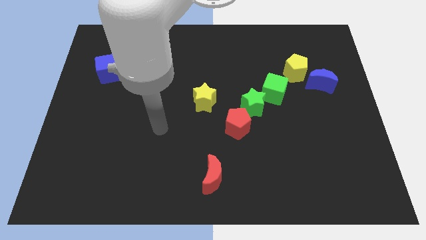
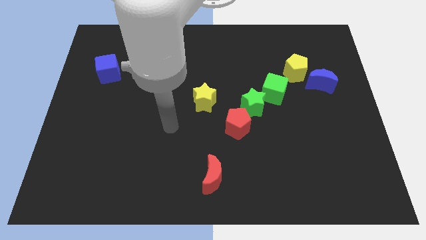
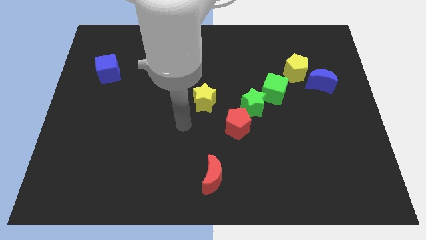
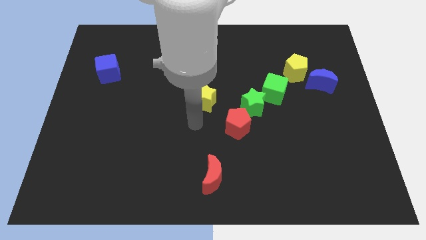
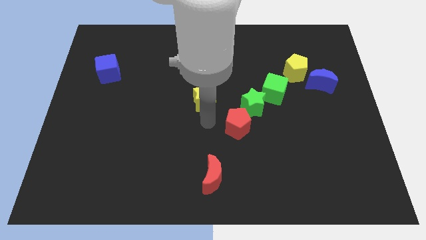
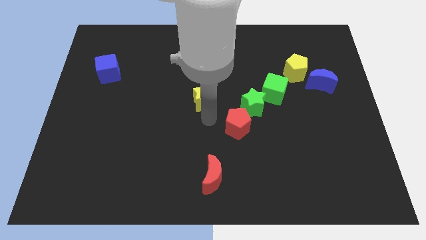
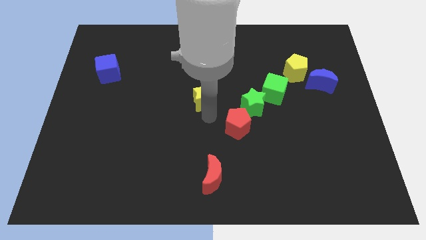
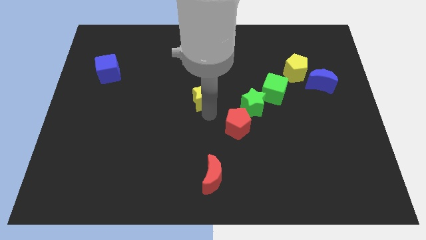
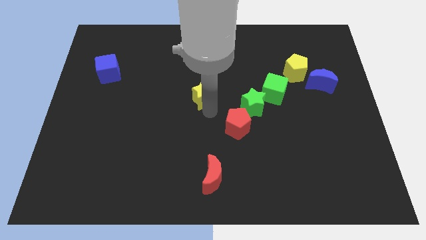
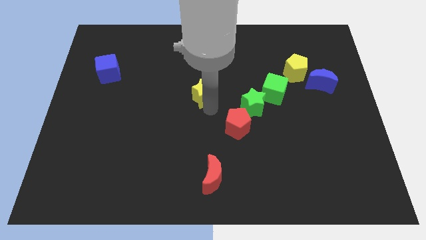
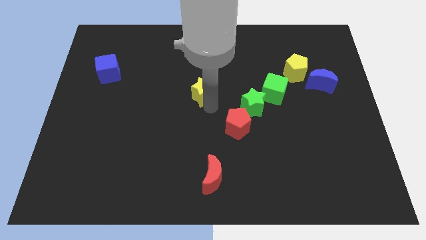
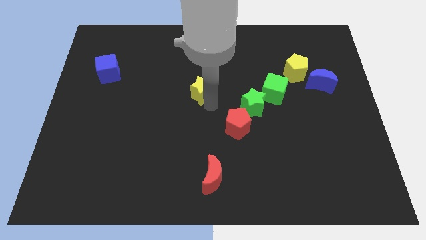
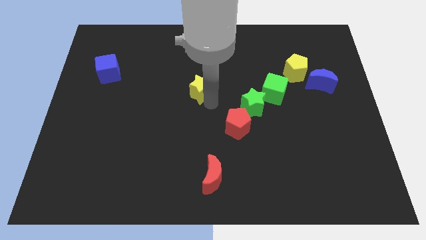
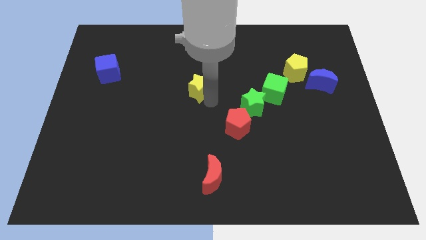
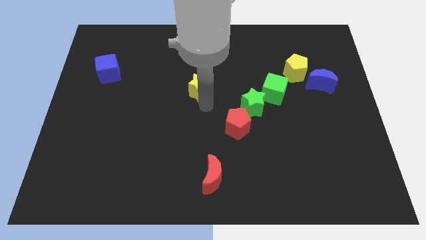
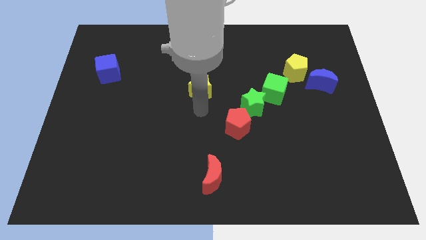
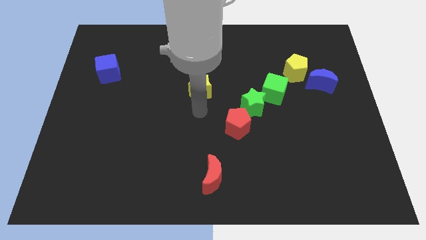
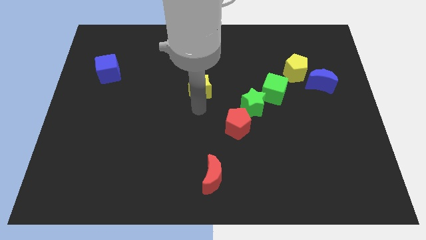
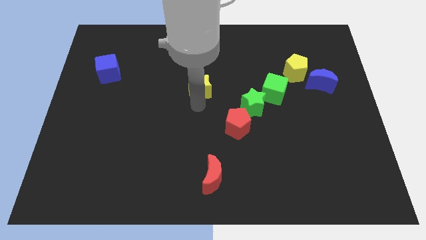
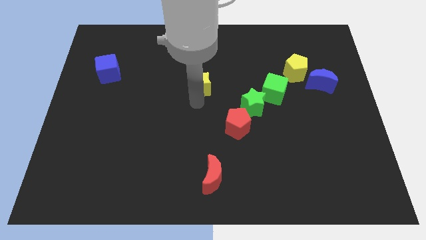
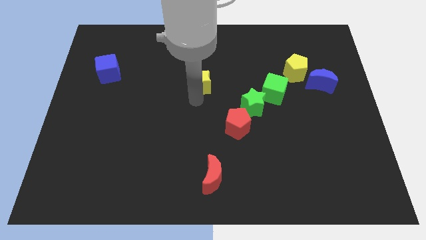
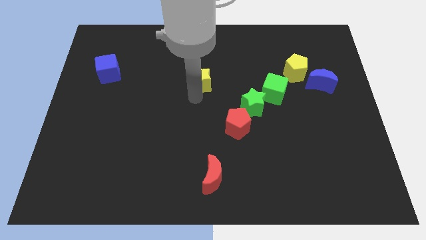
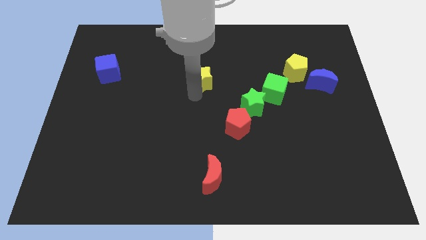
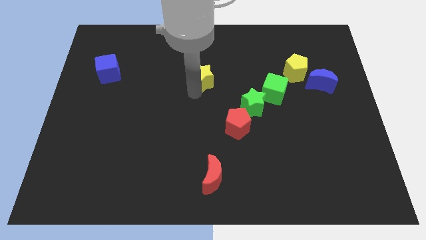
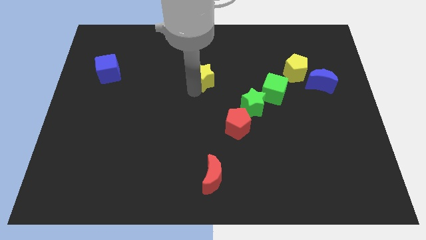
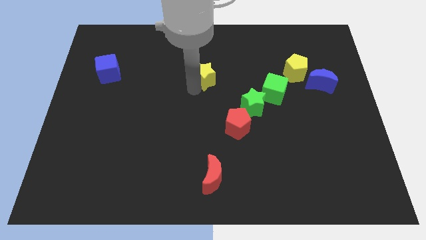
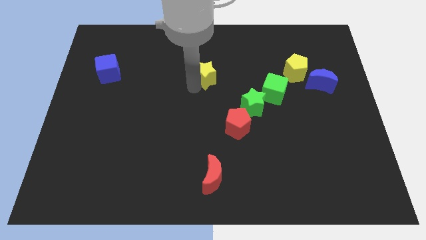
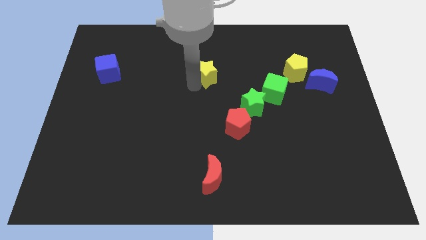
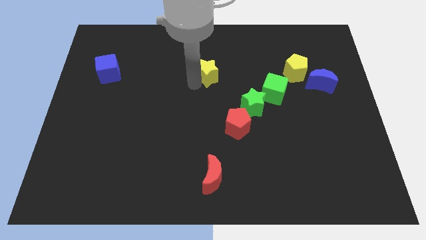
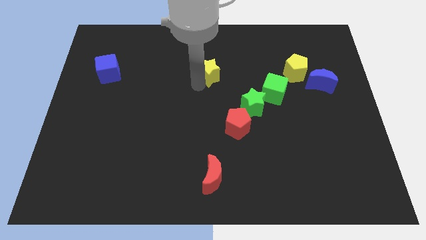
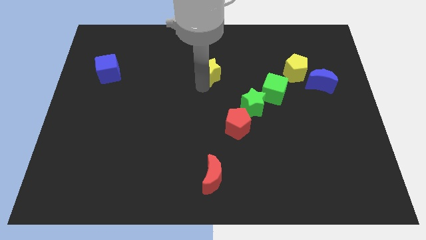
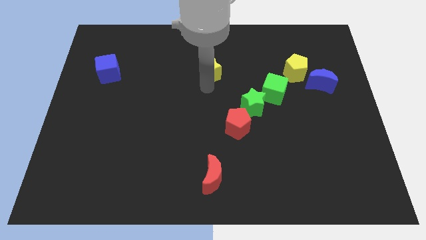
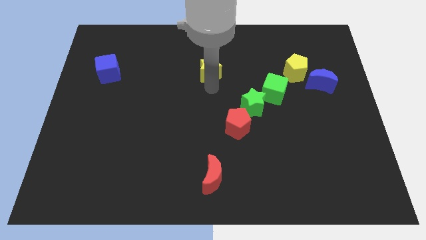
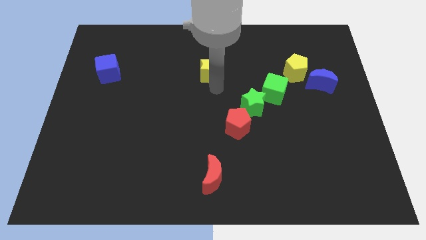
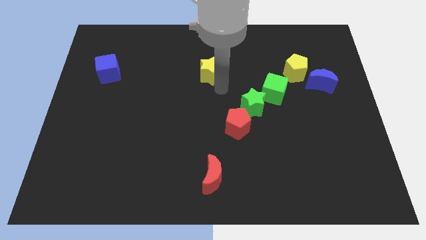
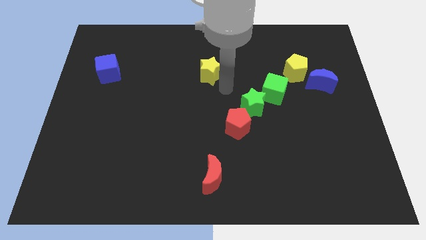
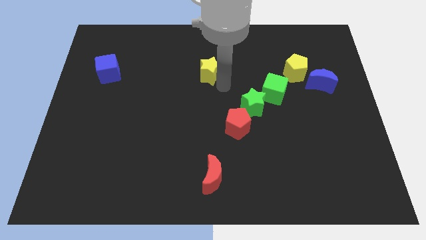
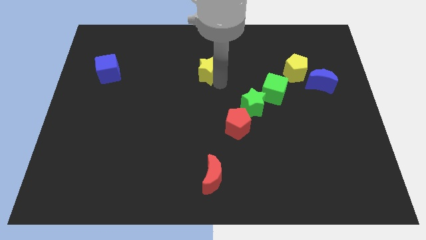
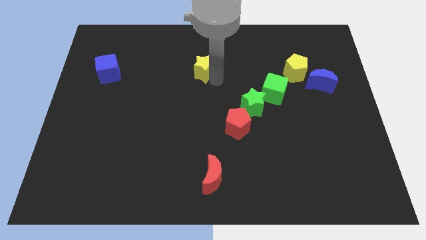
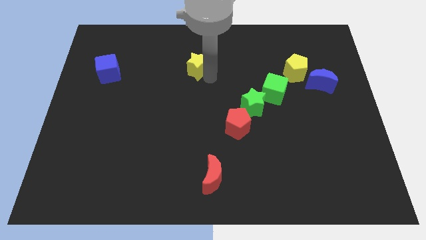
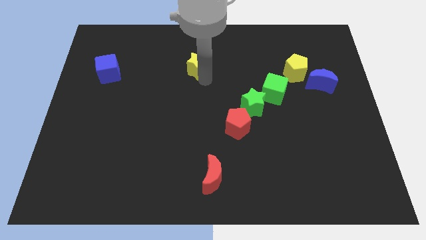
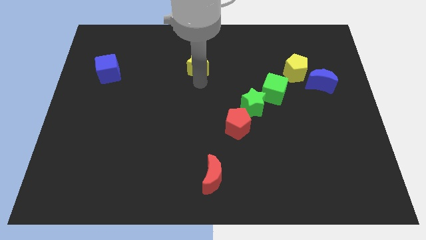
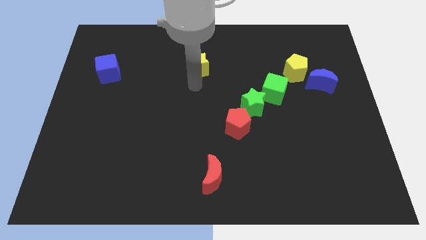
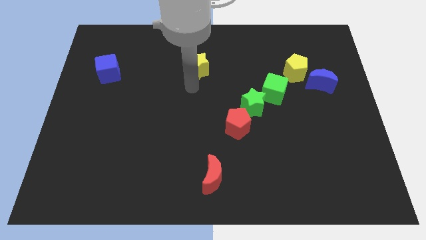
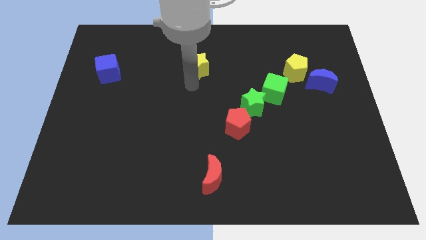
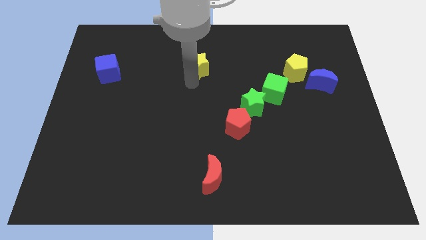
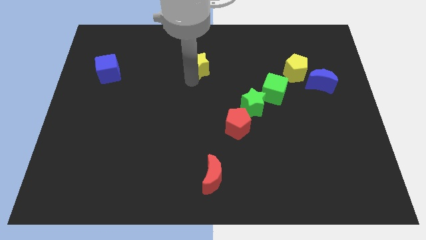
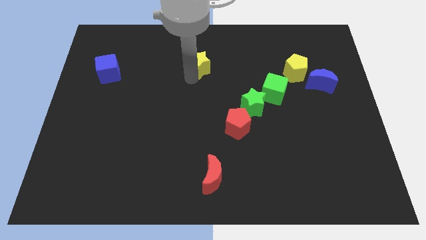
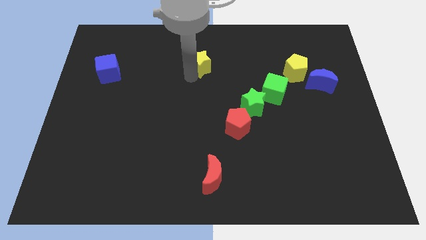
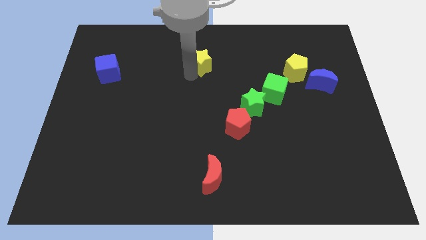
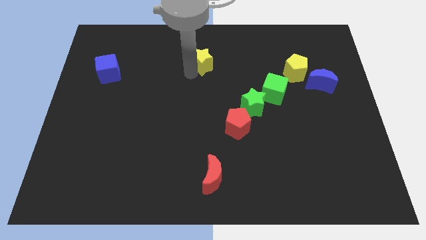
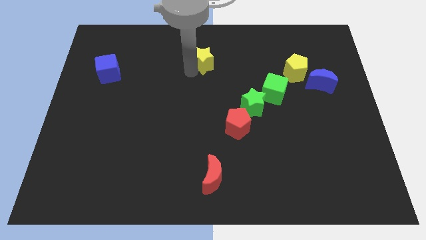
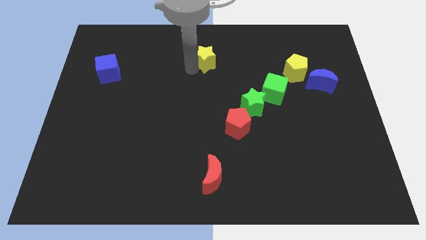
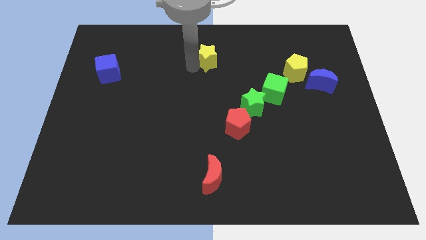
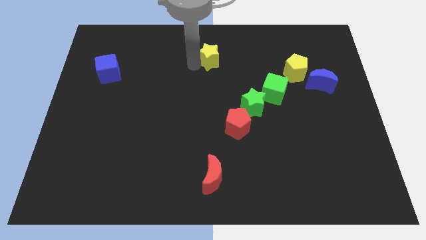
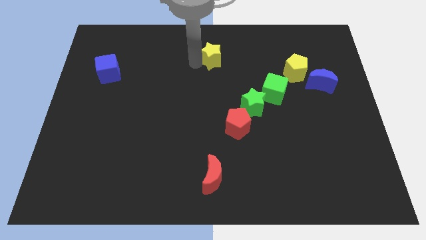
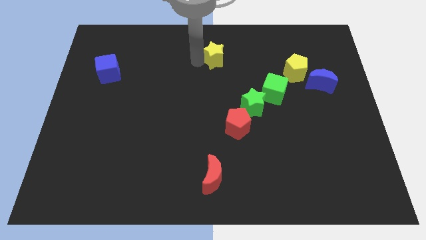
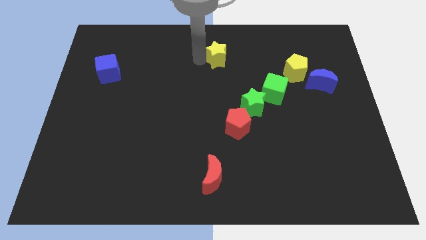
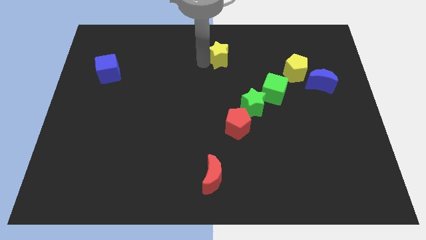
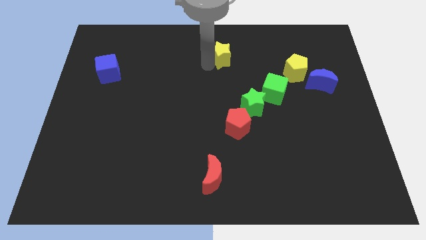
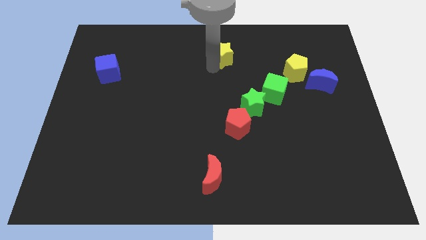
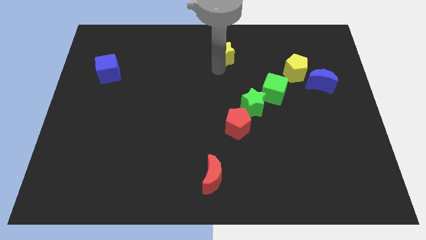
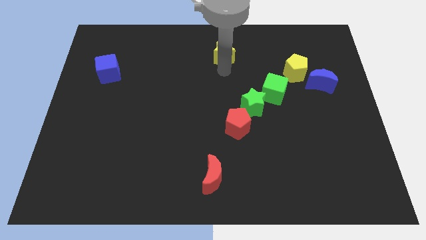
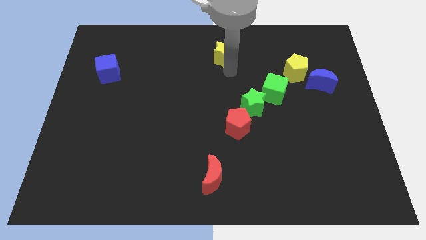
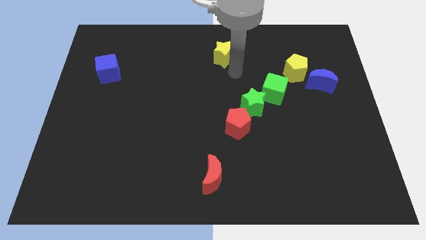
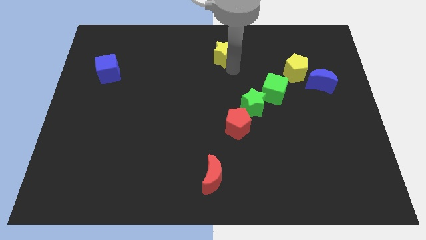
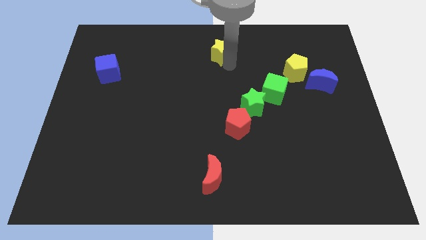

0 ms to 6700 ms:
slide the yellow star to the top side
